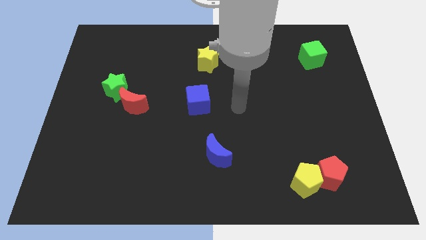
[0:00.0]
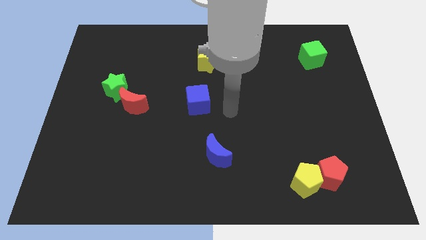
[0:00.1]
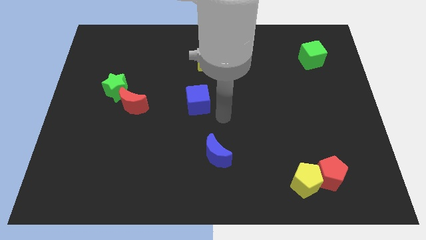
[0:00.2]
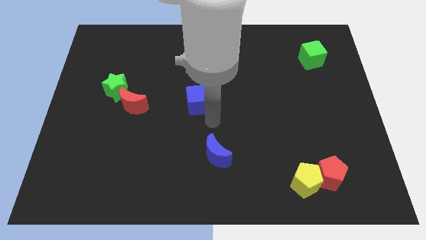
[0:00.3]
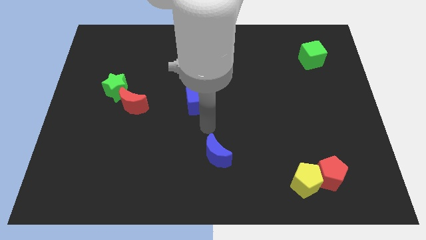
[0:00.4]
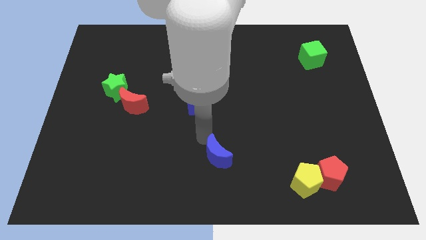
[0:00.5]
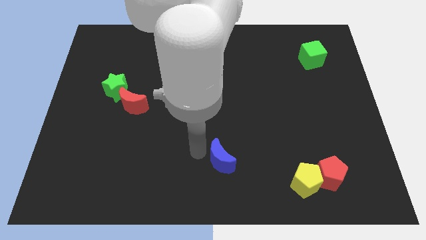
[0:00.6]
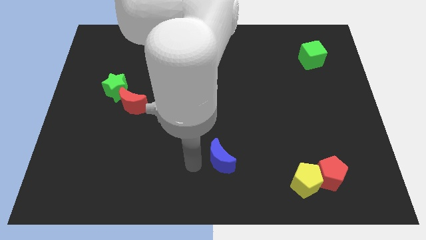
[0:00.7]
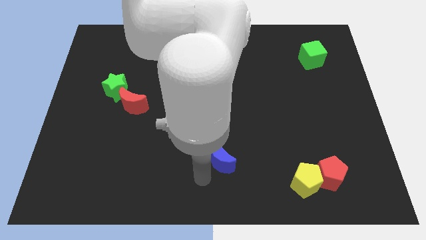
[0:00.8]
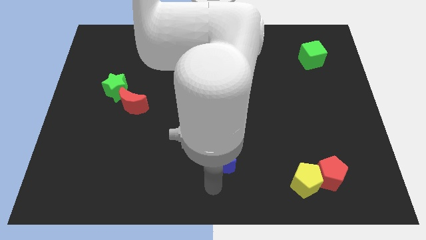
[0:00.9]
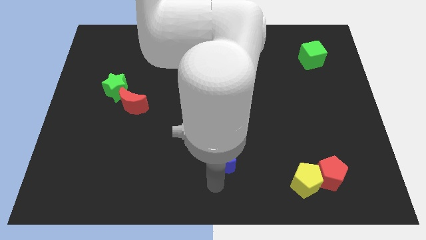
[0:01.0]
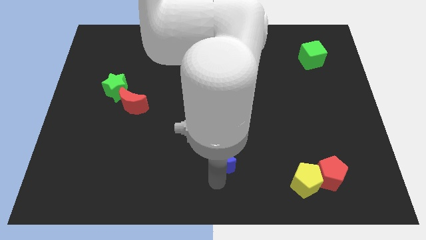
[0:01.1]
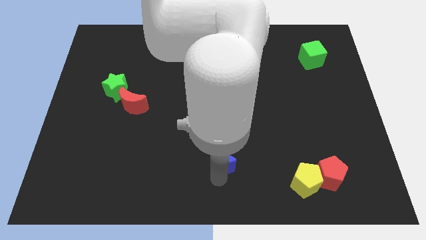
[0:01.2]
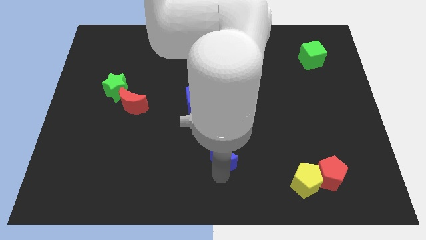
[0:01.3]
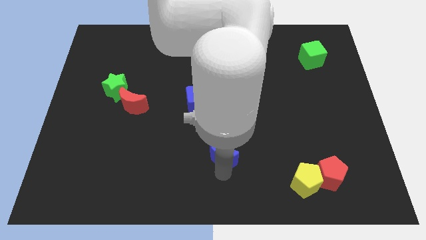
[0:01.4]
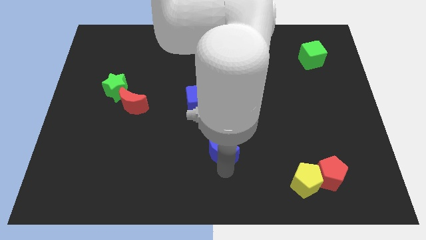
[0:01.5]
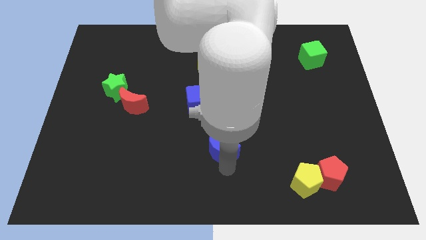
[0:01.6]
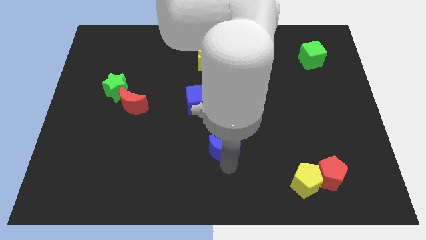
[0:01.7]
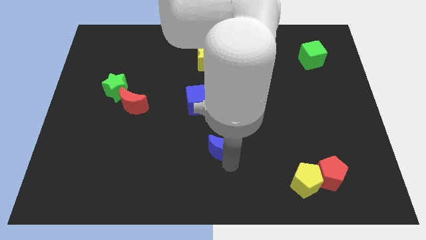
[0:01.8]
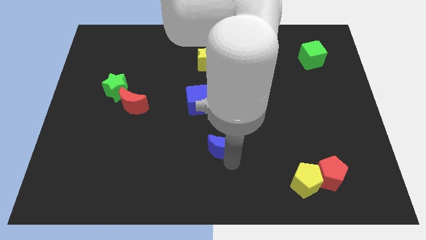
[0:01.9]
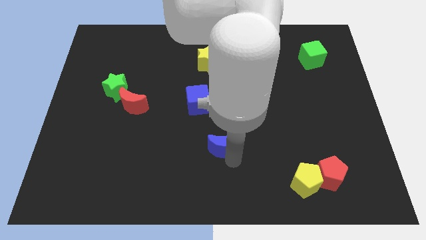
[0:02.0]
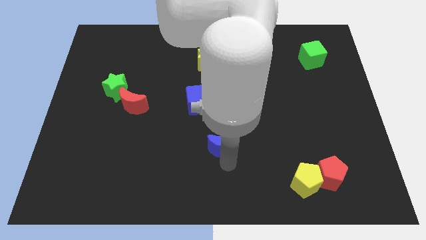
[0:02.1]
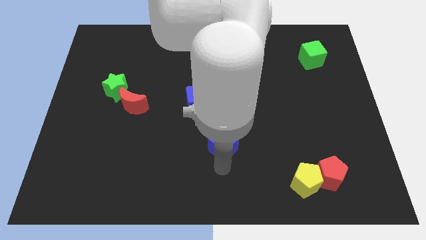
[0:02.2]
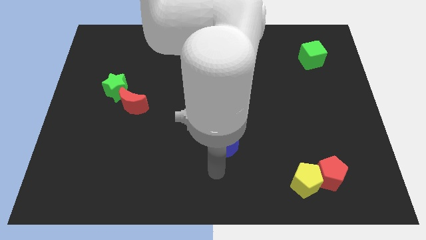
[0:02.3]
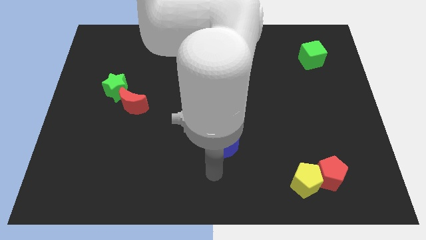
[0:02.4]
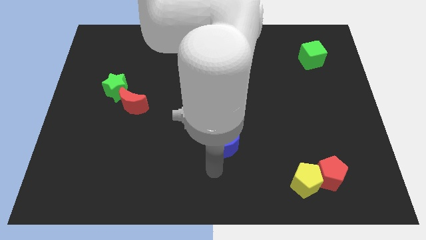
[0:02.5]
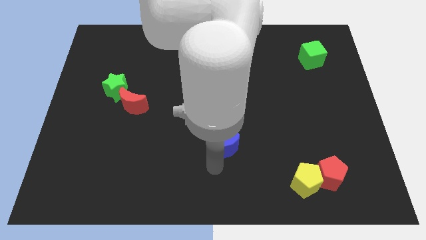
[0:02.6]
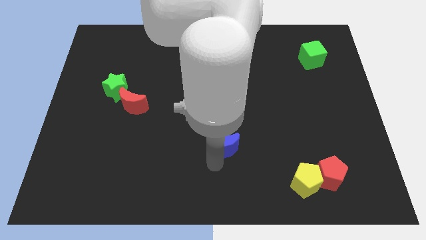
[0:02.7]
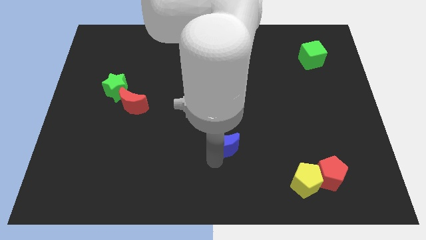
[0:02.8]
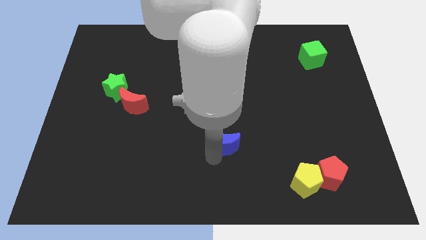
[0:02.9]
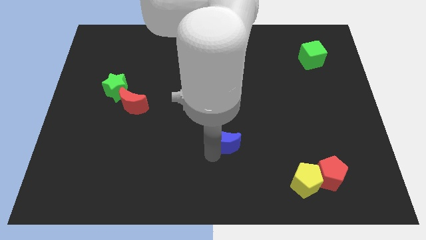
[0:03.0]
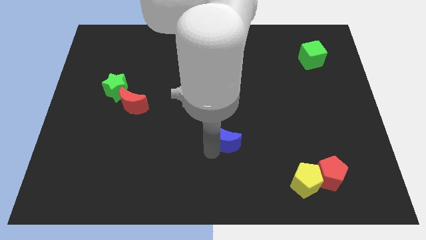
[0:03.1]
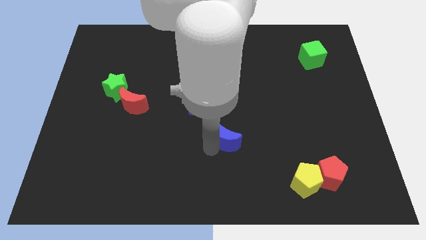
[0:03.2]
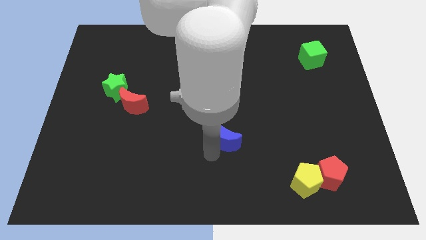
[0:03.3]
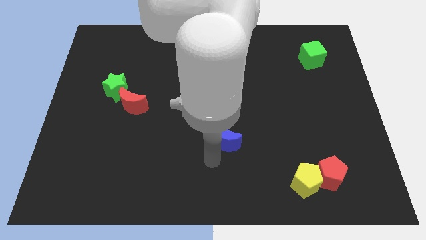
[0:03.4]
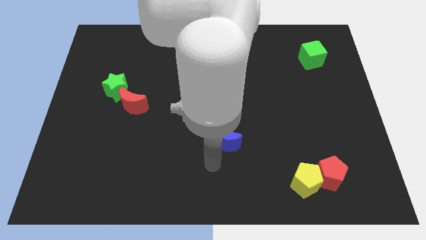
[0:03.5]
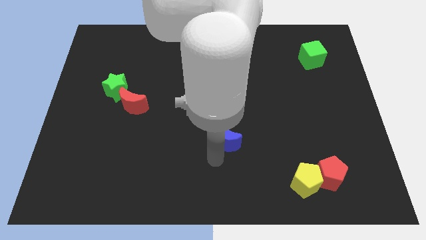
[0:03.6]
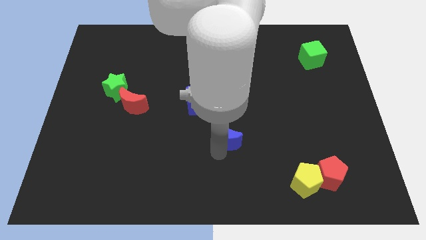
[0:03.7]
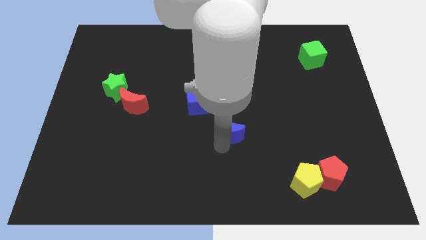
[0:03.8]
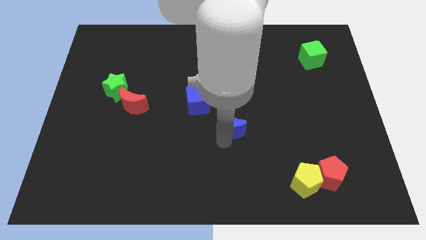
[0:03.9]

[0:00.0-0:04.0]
slightly push the blue moon up

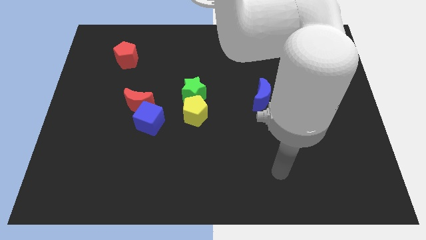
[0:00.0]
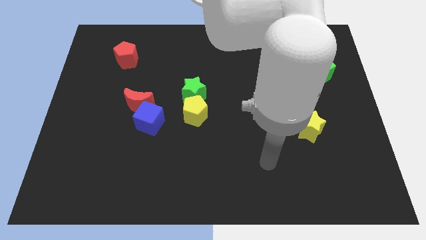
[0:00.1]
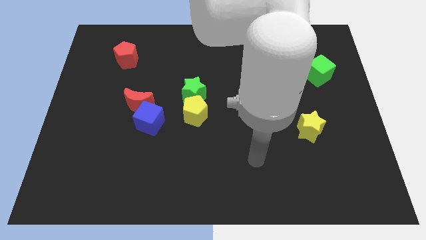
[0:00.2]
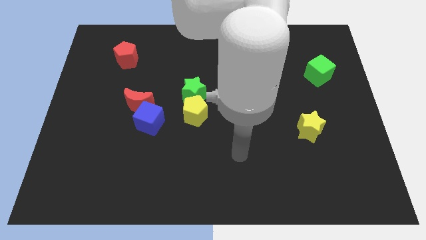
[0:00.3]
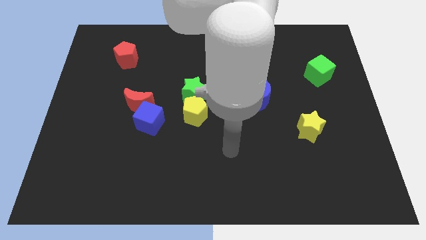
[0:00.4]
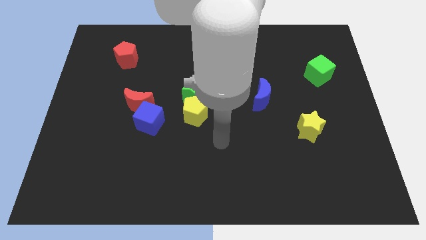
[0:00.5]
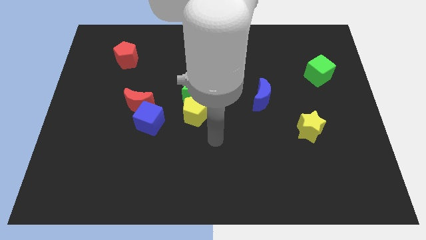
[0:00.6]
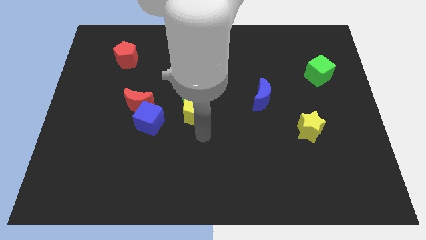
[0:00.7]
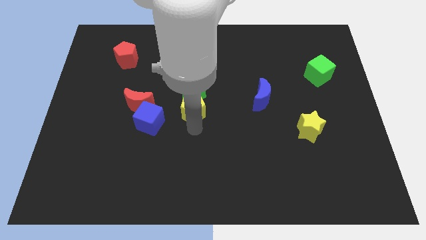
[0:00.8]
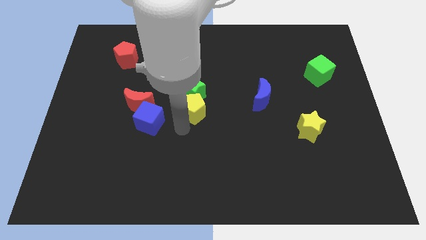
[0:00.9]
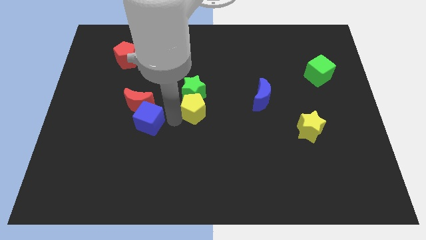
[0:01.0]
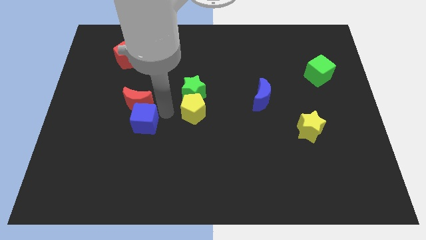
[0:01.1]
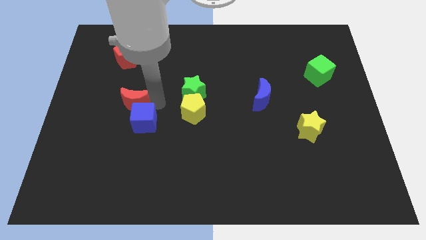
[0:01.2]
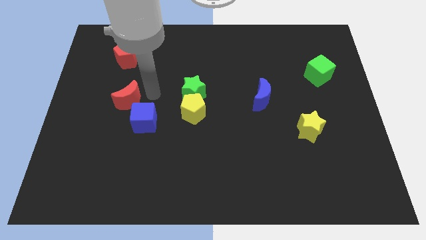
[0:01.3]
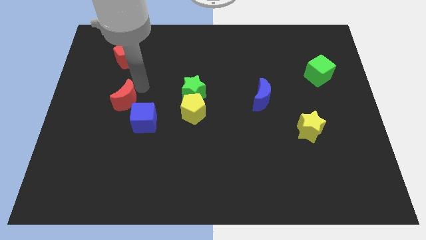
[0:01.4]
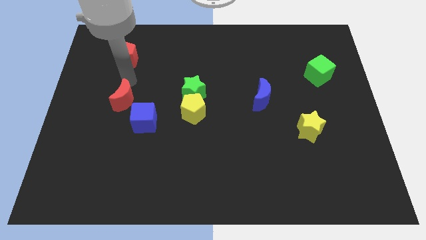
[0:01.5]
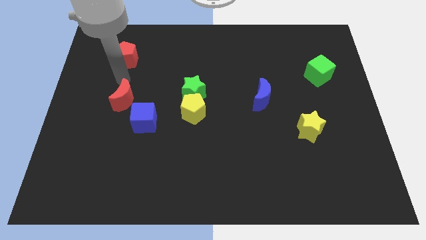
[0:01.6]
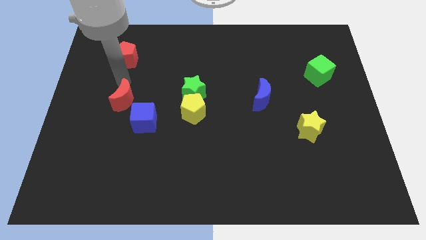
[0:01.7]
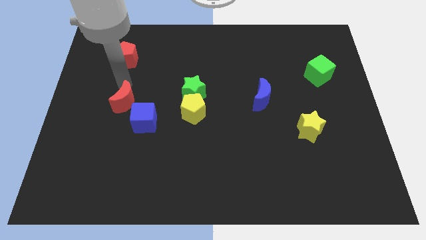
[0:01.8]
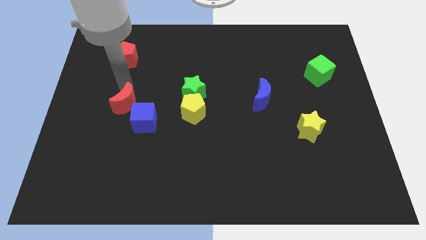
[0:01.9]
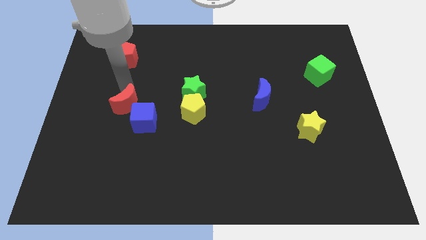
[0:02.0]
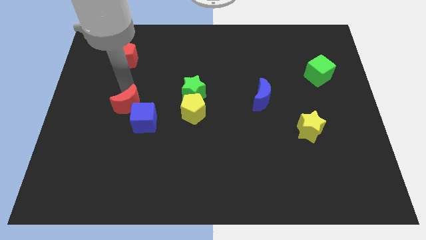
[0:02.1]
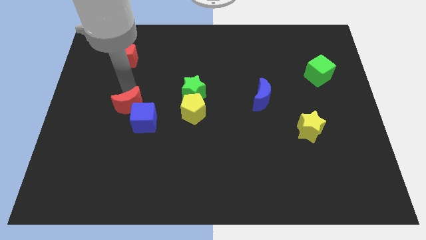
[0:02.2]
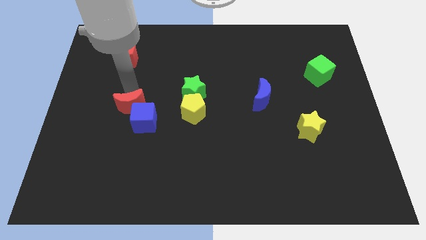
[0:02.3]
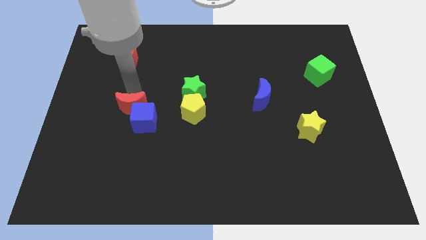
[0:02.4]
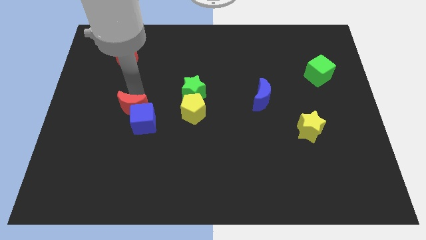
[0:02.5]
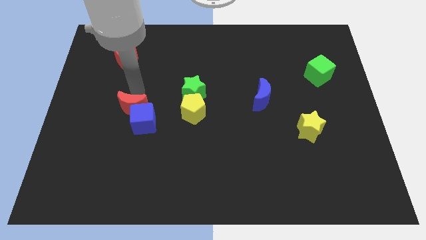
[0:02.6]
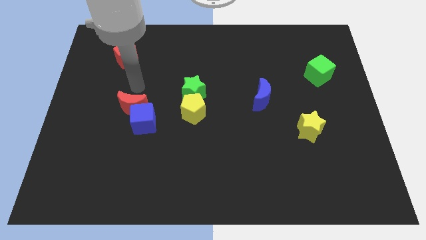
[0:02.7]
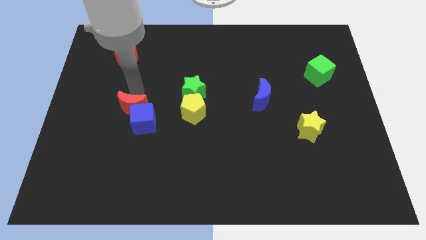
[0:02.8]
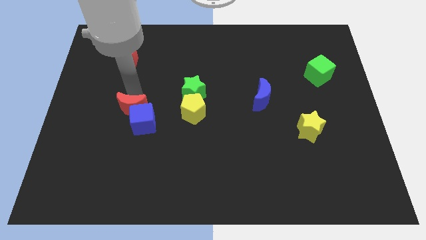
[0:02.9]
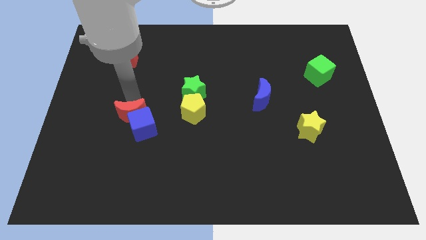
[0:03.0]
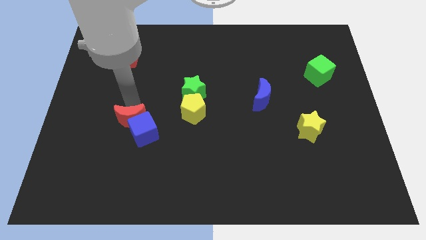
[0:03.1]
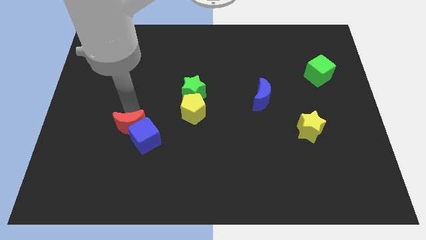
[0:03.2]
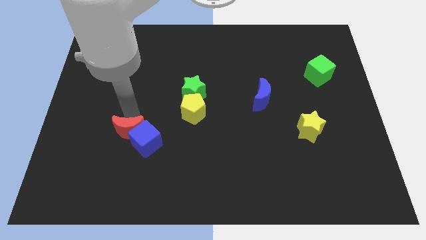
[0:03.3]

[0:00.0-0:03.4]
move the red moon downwards a bit

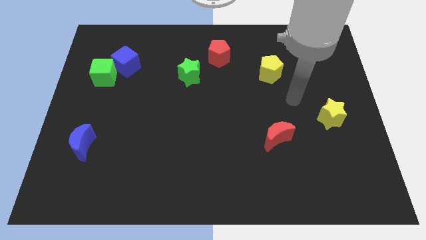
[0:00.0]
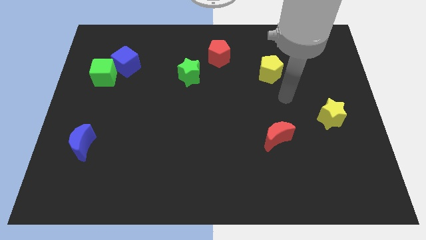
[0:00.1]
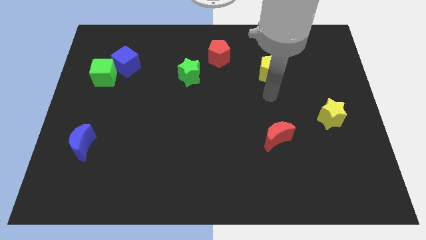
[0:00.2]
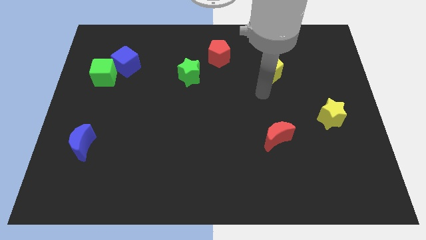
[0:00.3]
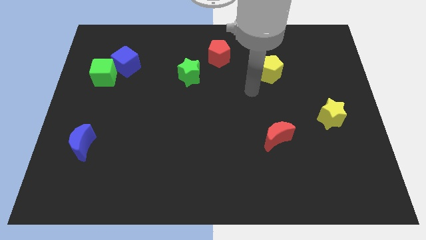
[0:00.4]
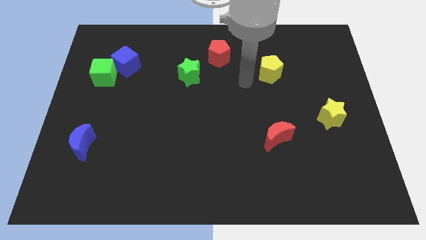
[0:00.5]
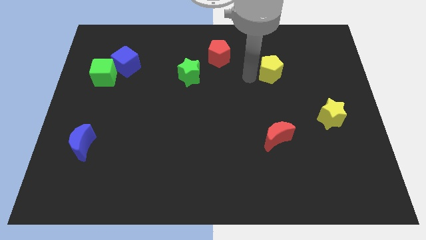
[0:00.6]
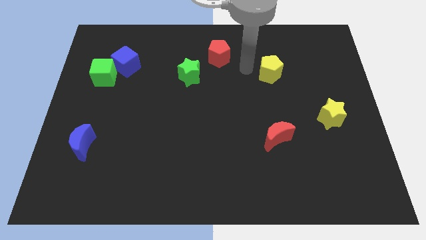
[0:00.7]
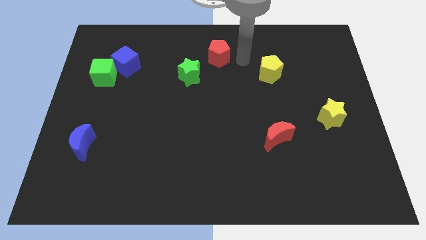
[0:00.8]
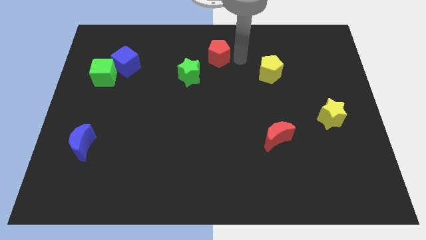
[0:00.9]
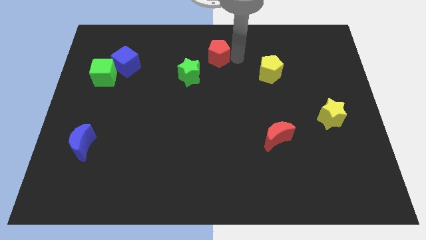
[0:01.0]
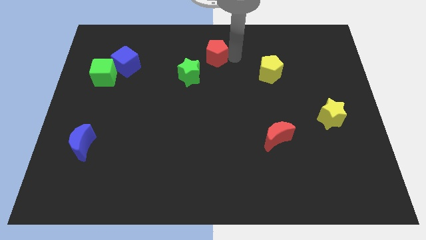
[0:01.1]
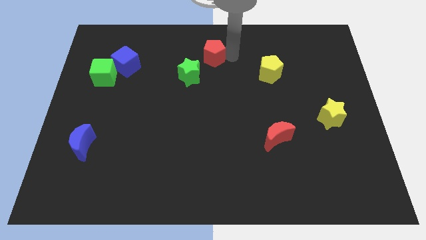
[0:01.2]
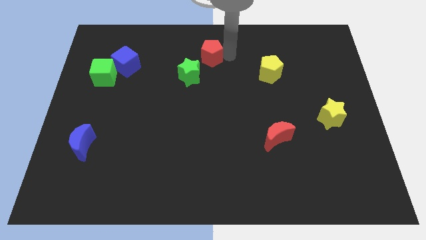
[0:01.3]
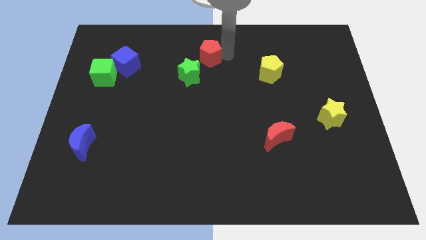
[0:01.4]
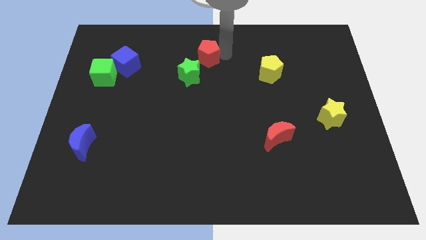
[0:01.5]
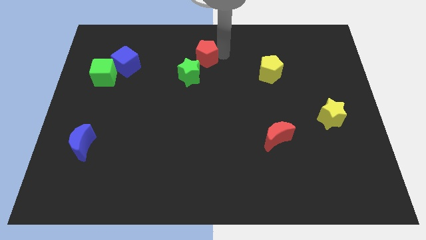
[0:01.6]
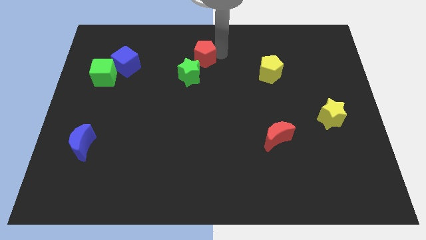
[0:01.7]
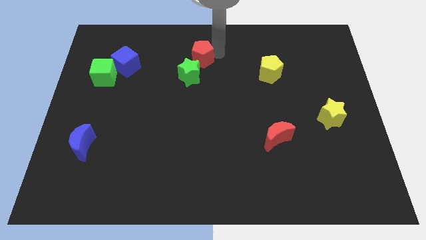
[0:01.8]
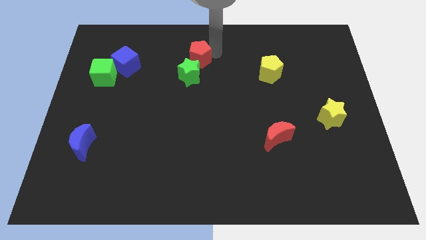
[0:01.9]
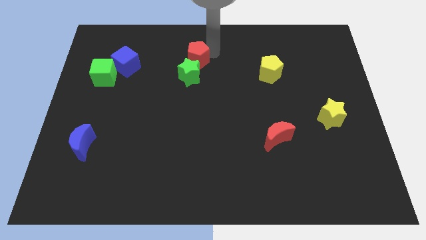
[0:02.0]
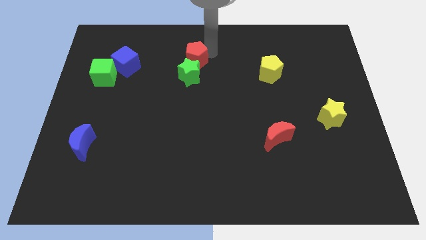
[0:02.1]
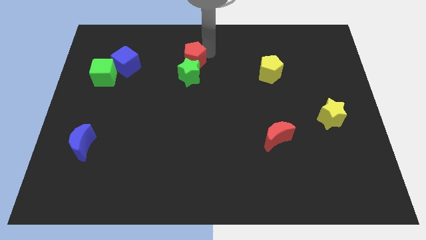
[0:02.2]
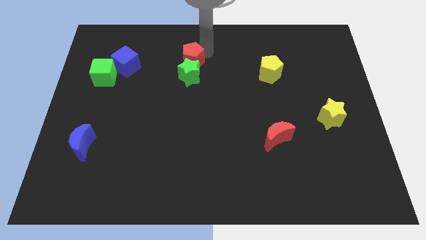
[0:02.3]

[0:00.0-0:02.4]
move the red pentagon left a little
